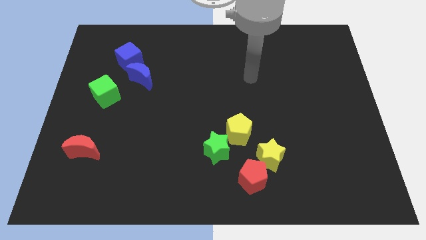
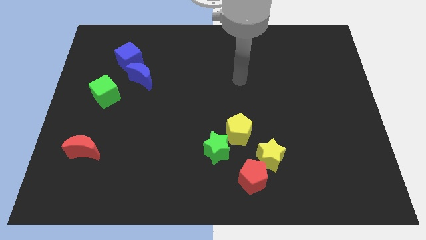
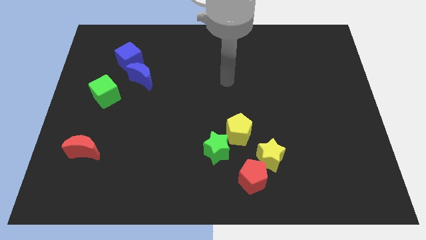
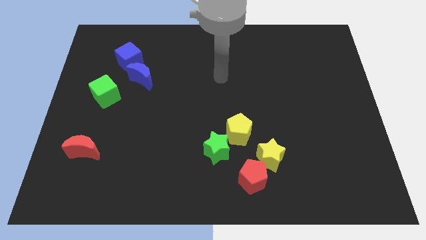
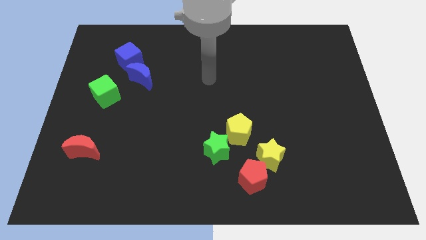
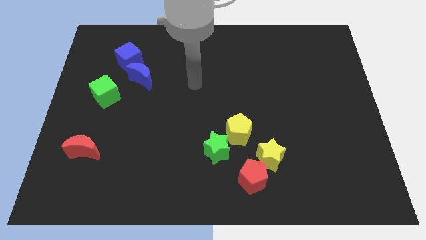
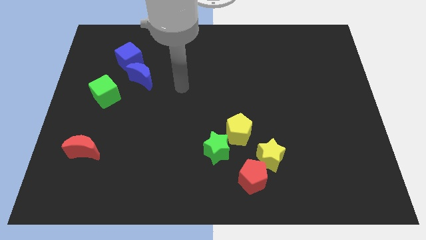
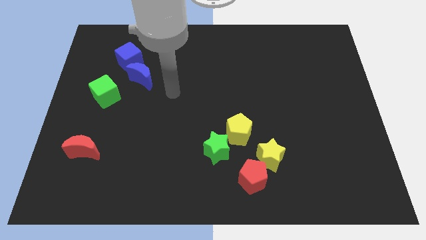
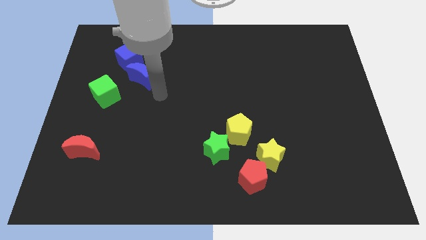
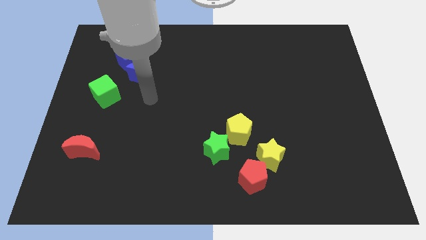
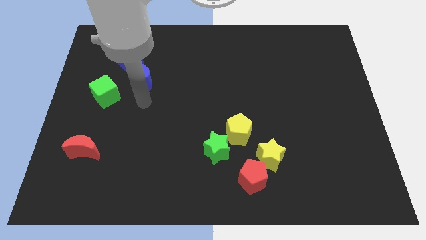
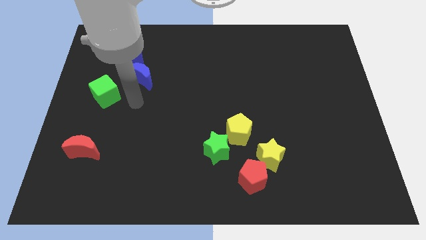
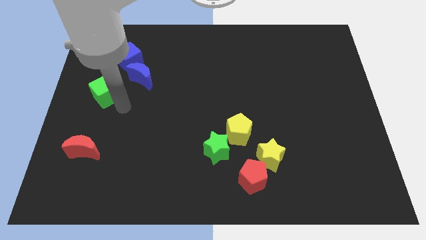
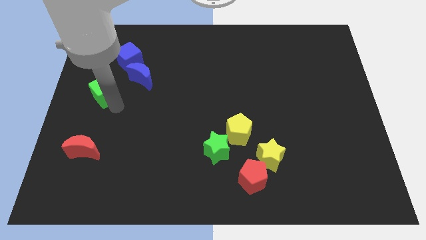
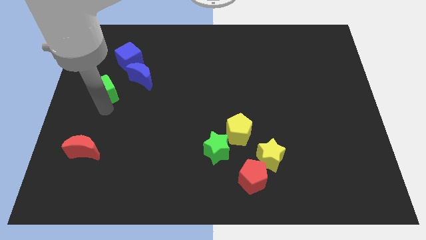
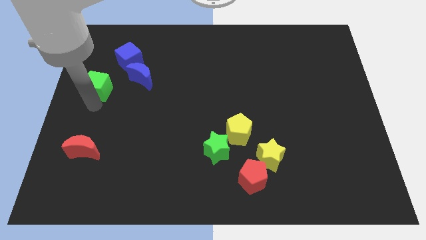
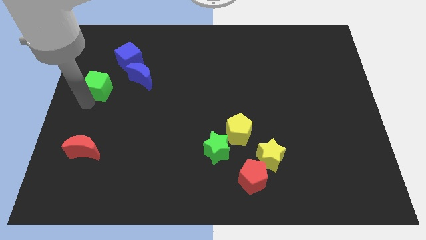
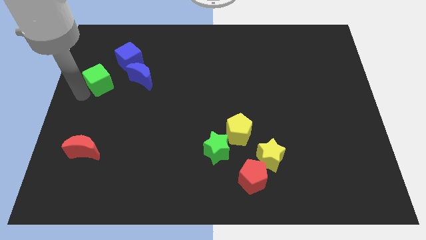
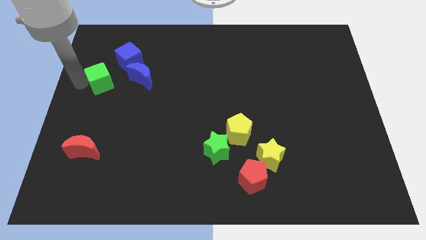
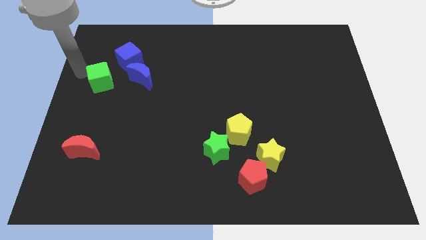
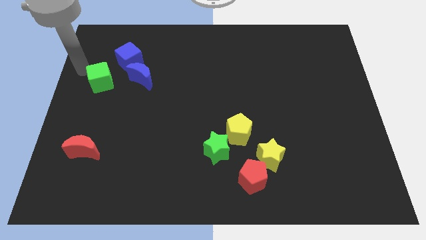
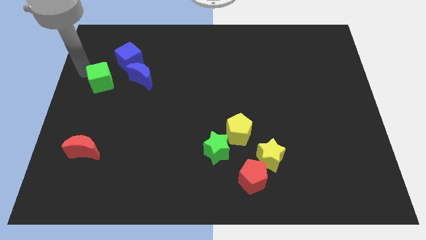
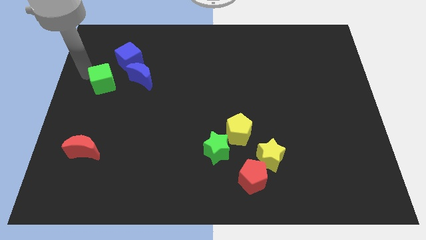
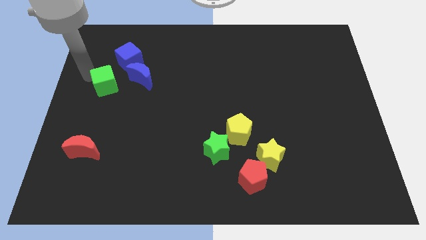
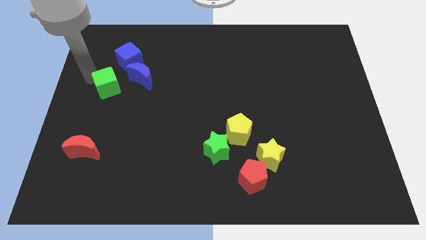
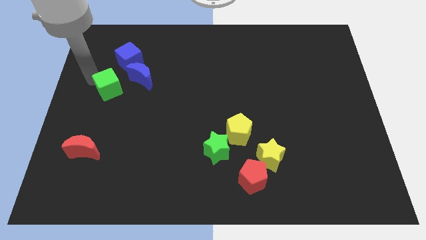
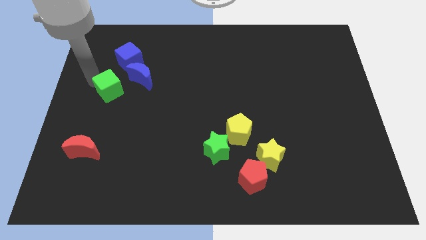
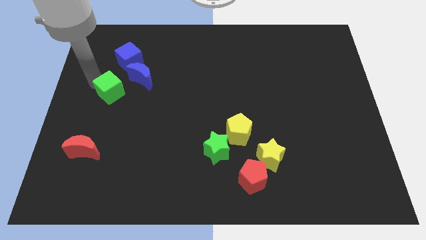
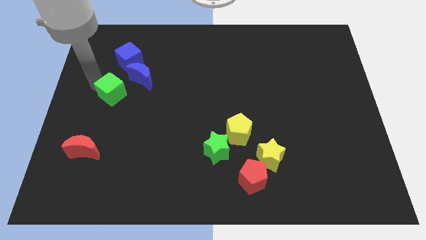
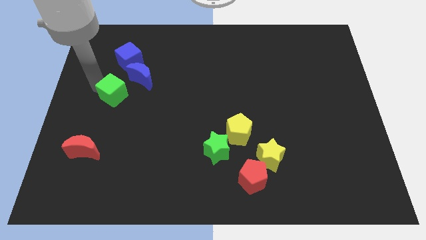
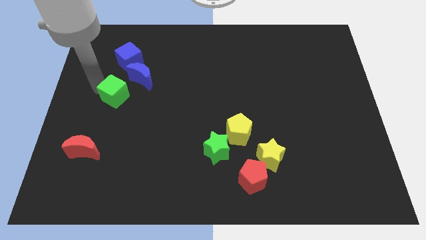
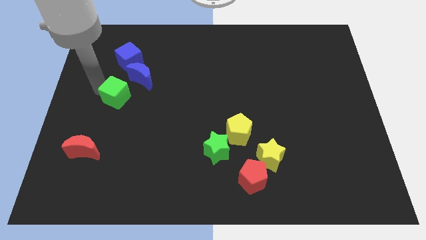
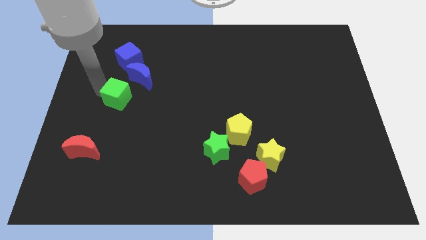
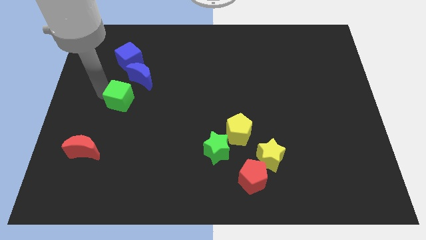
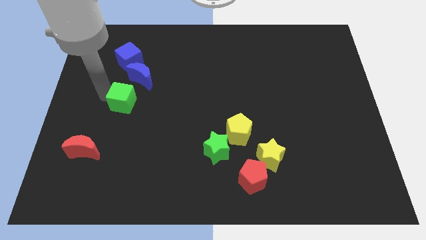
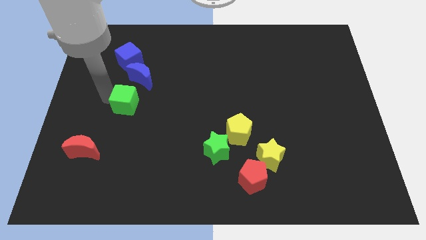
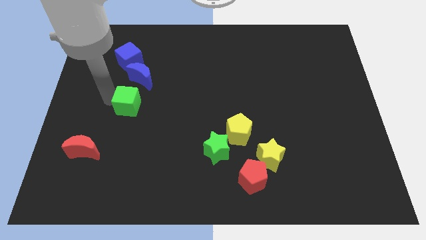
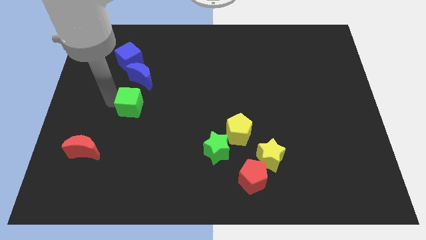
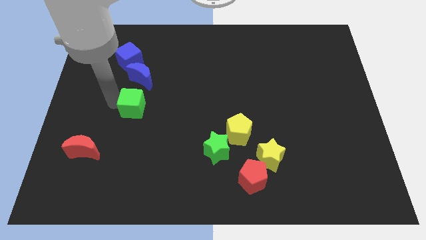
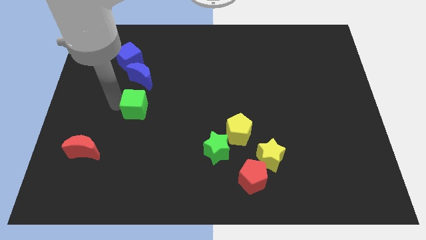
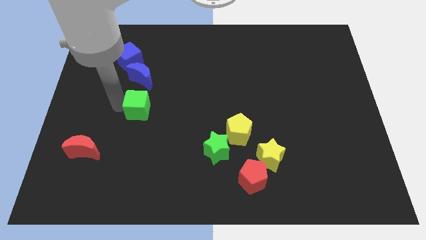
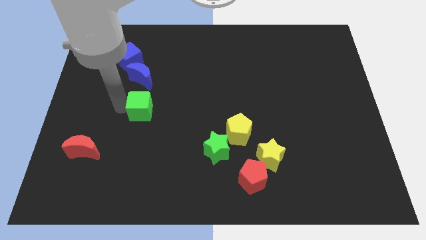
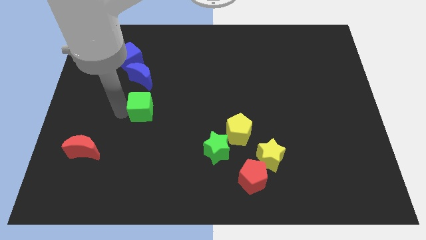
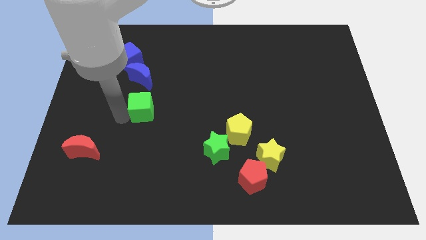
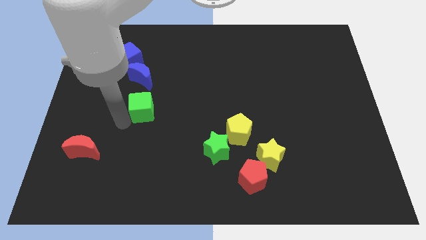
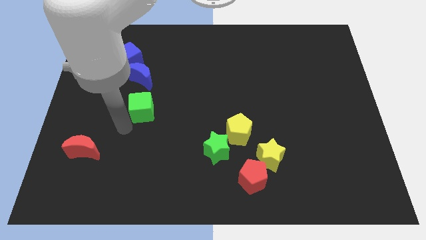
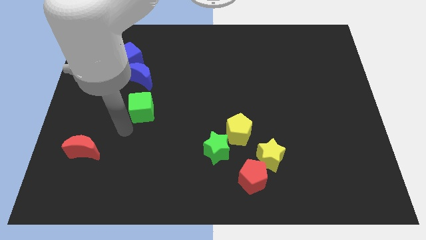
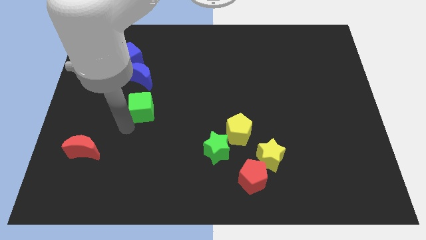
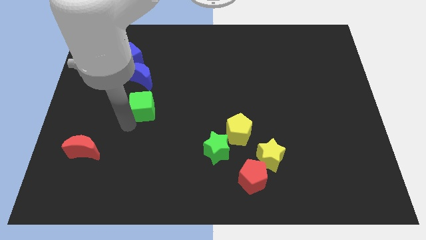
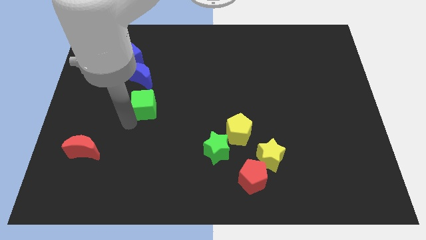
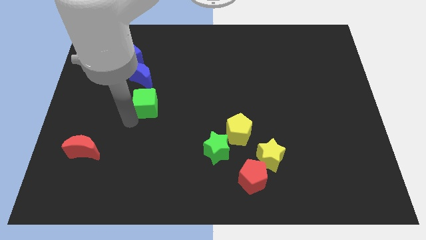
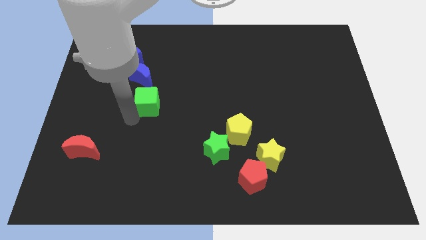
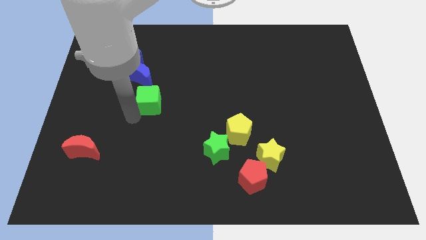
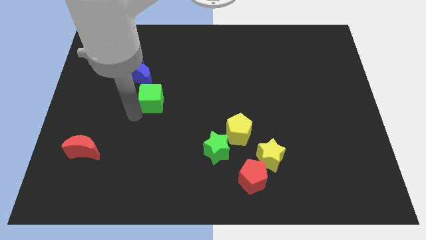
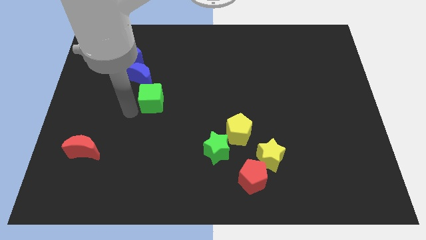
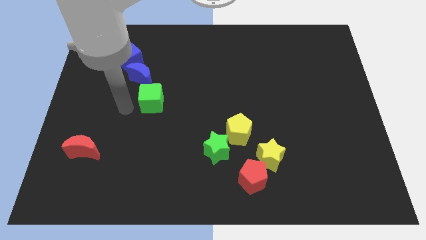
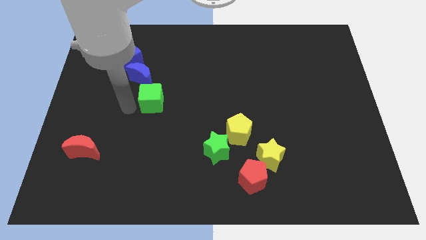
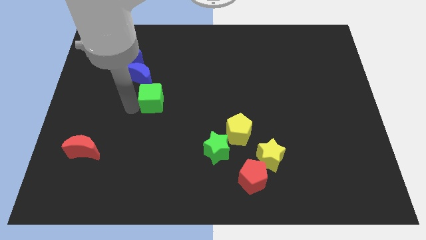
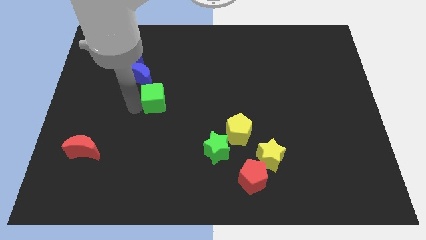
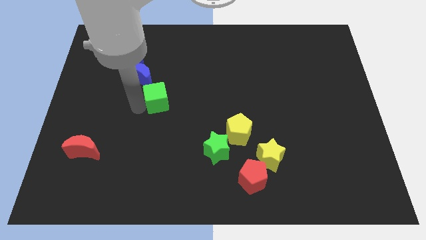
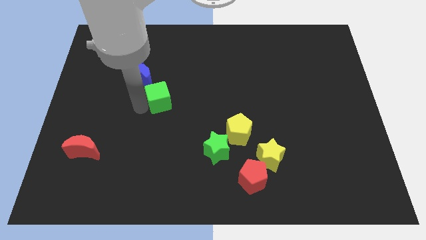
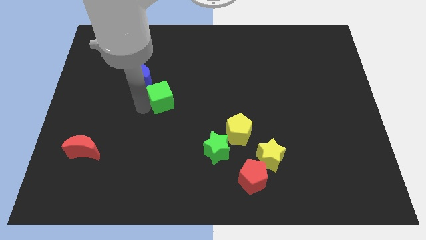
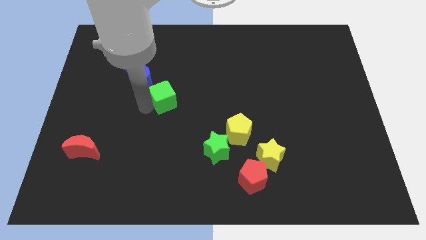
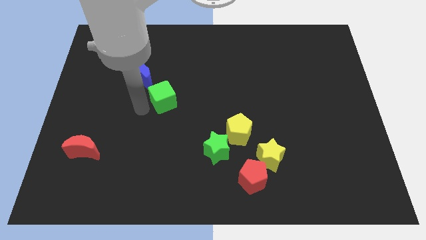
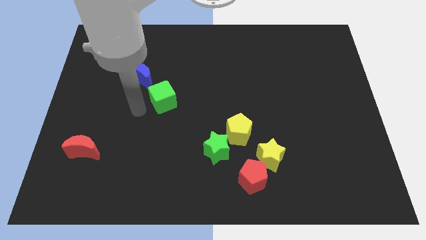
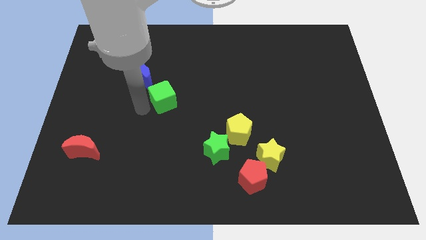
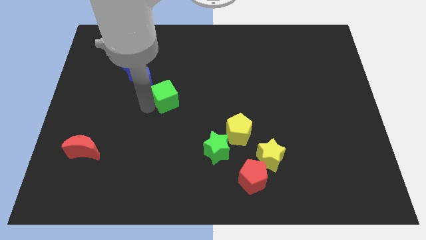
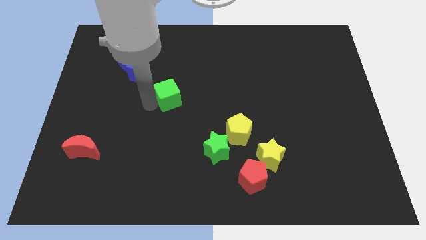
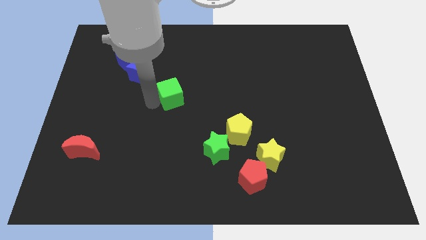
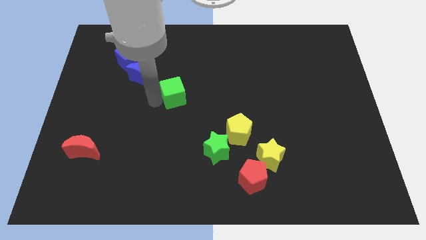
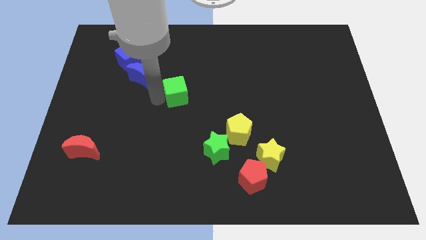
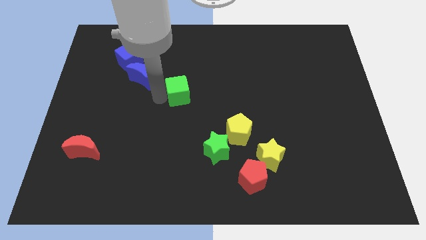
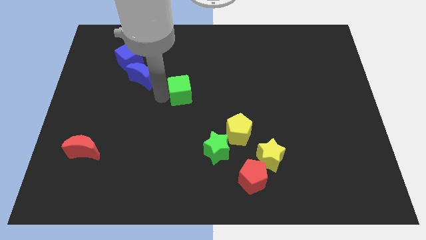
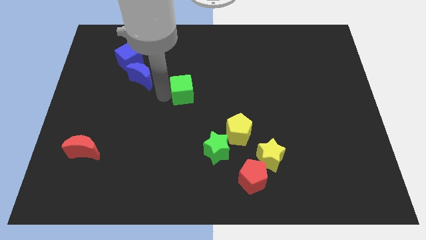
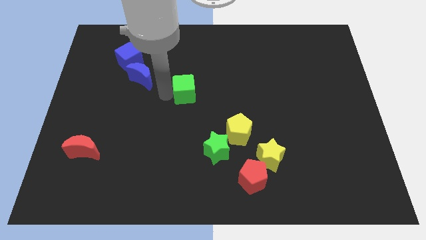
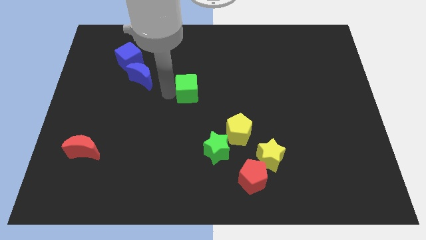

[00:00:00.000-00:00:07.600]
move the green cube to the right

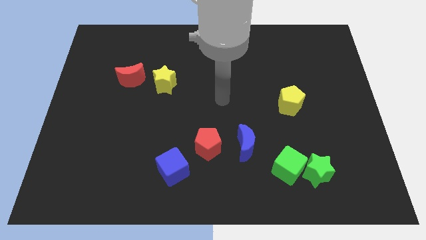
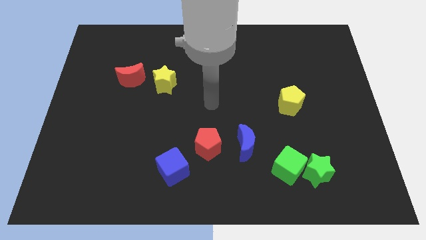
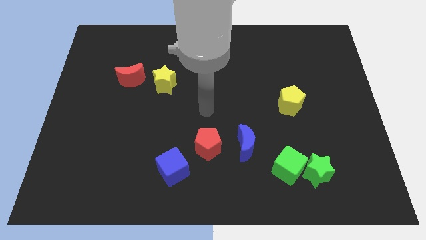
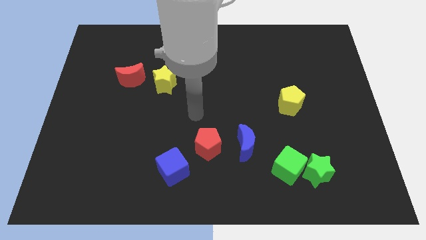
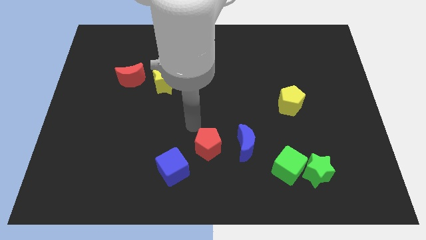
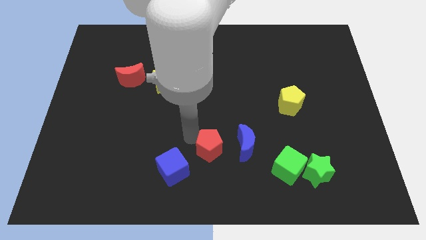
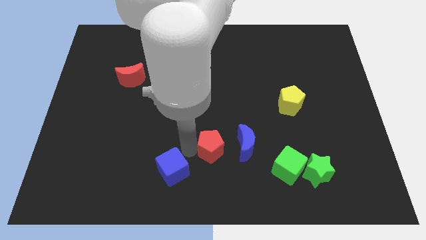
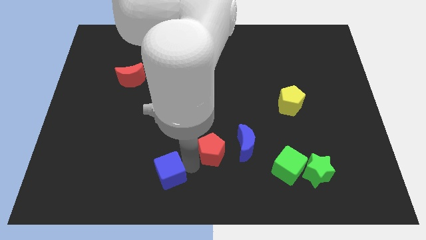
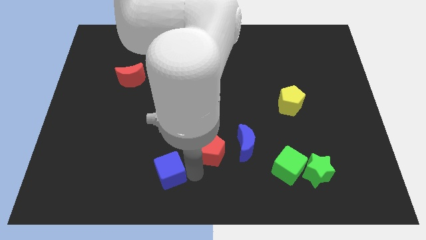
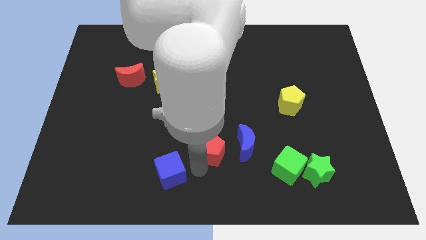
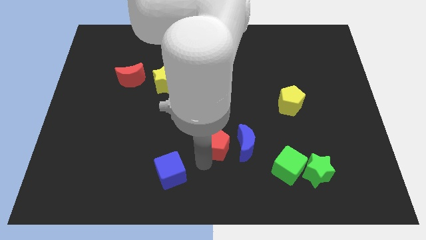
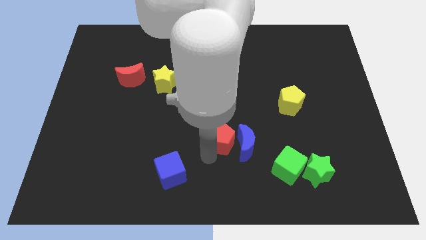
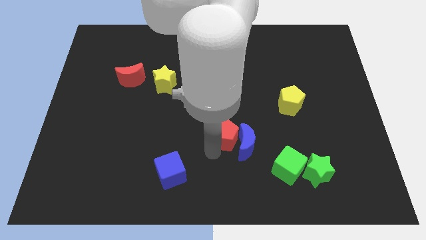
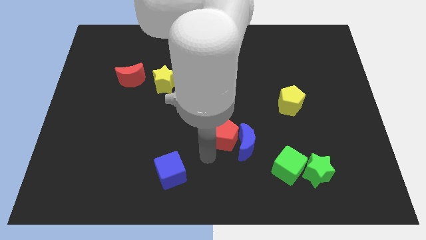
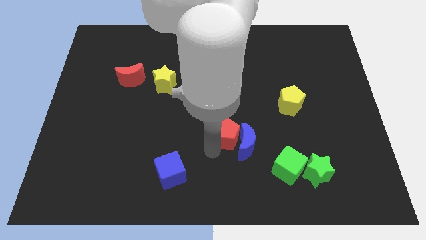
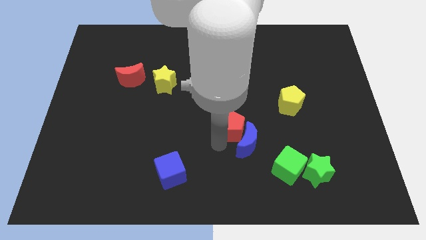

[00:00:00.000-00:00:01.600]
slightly push the red pentagon upwards and to the right
